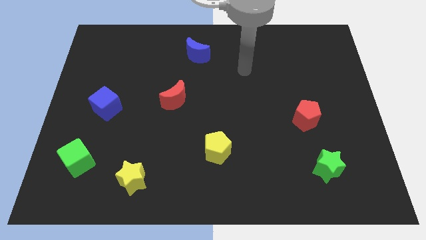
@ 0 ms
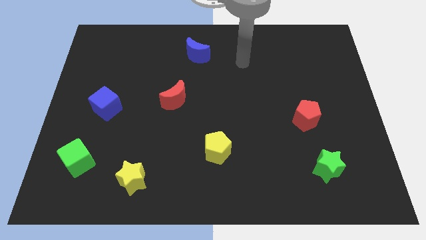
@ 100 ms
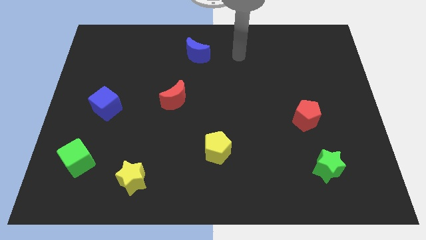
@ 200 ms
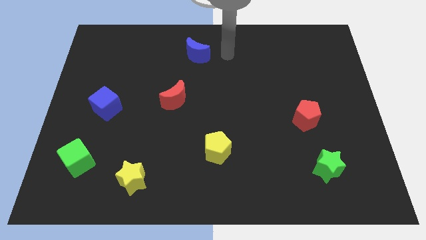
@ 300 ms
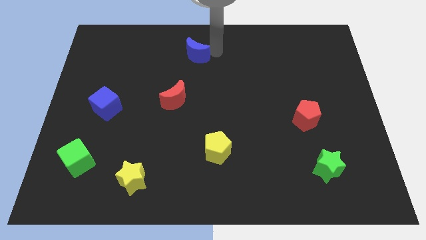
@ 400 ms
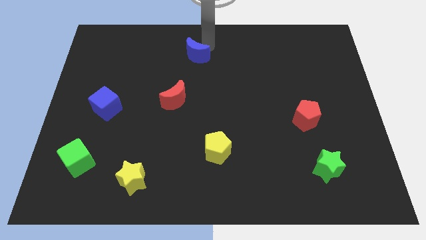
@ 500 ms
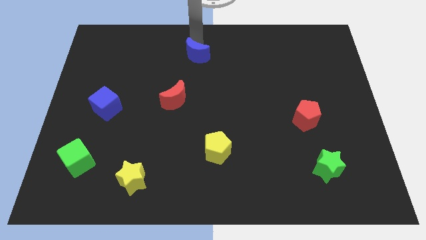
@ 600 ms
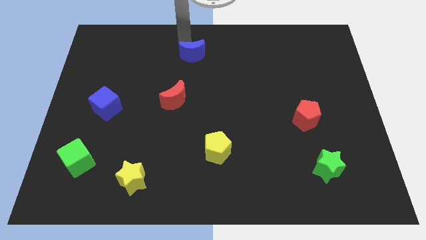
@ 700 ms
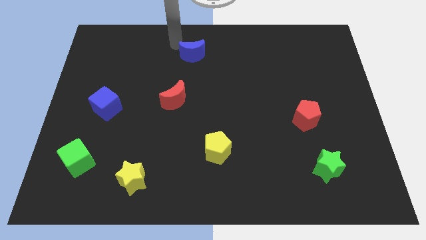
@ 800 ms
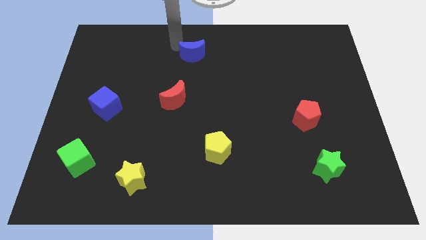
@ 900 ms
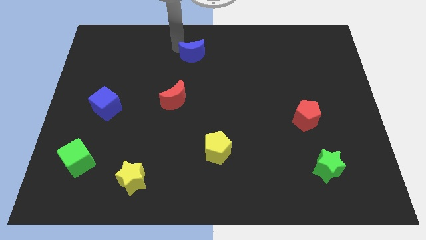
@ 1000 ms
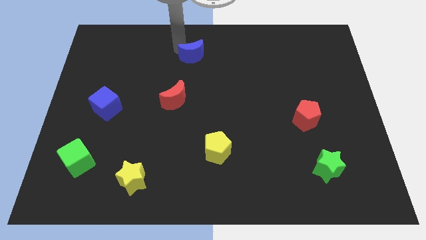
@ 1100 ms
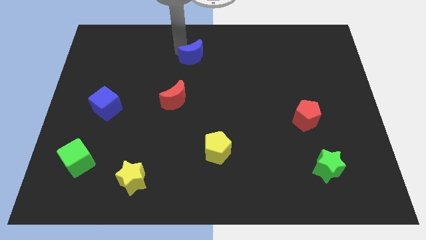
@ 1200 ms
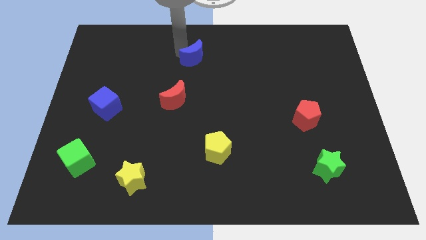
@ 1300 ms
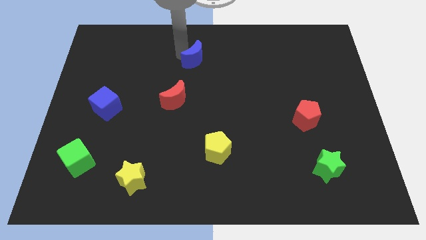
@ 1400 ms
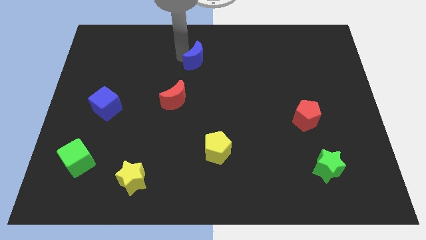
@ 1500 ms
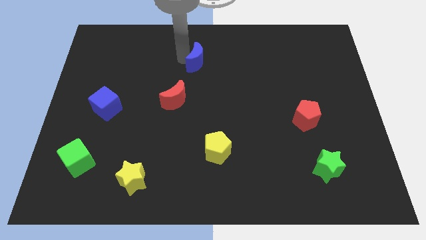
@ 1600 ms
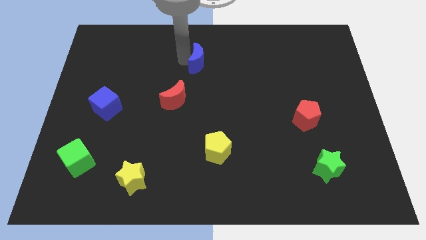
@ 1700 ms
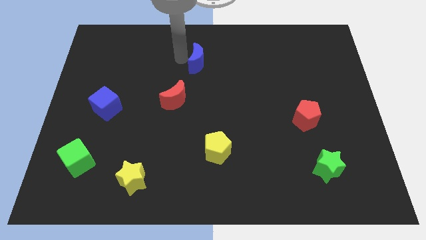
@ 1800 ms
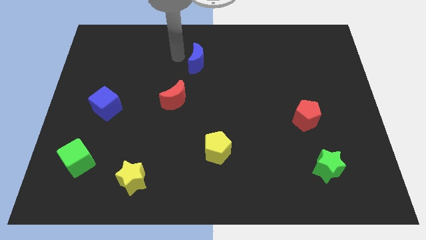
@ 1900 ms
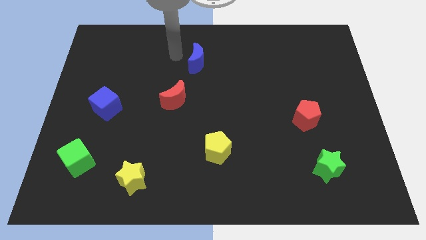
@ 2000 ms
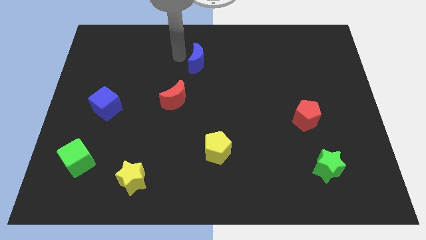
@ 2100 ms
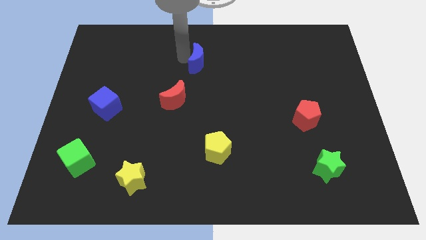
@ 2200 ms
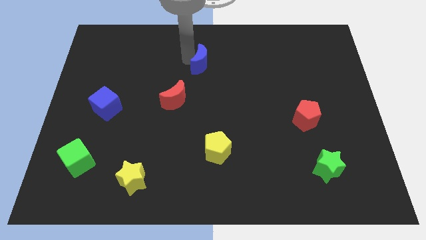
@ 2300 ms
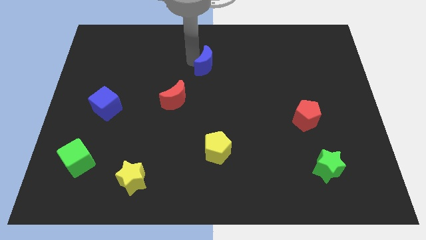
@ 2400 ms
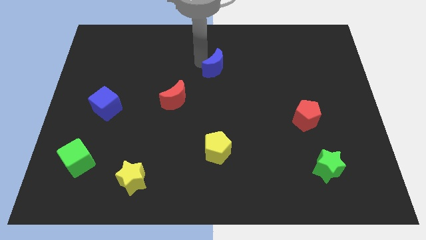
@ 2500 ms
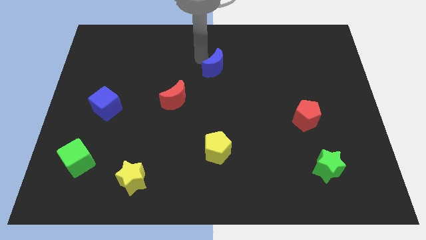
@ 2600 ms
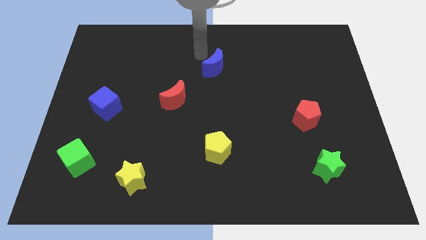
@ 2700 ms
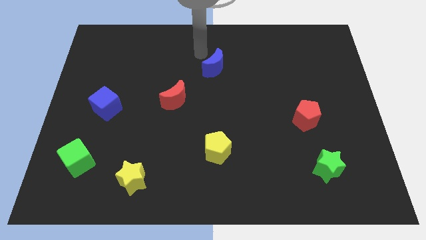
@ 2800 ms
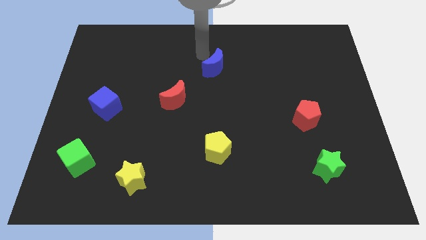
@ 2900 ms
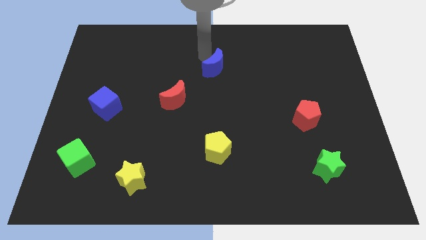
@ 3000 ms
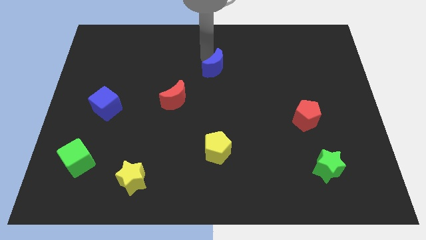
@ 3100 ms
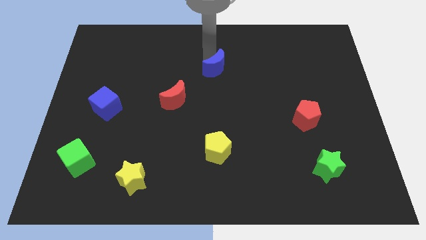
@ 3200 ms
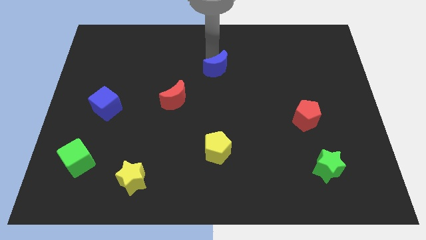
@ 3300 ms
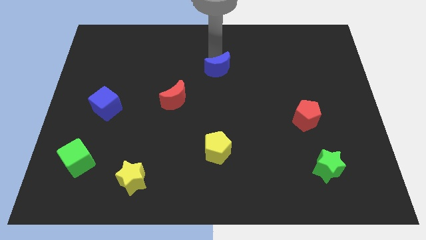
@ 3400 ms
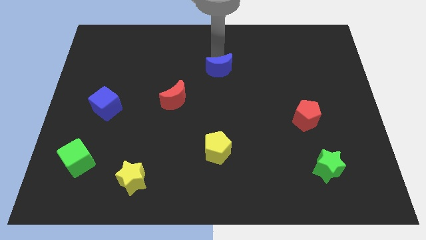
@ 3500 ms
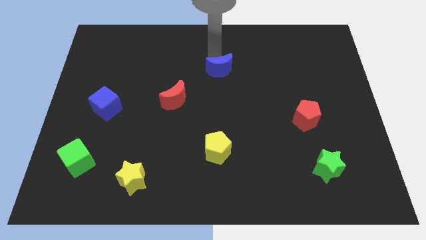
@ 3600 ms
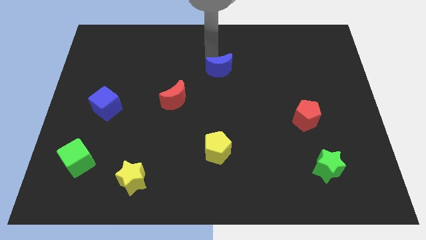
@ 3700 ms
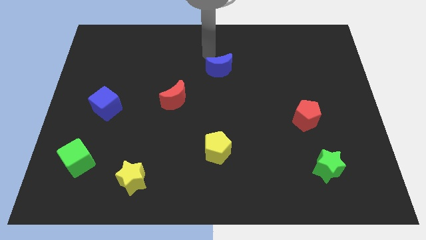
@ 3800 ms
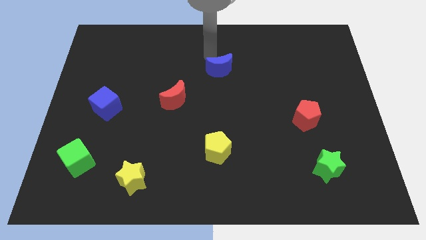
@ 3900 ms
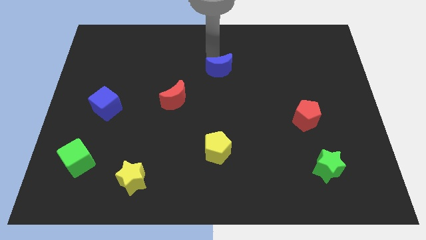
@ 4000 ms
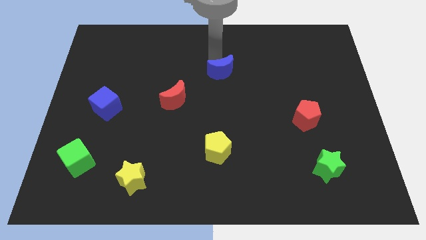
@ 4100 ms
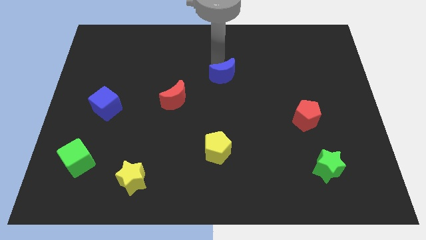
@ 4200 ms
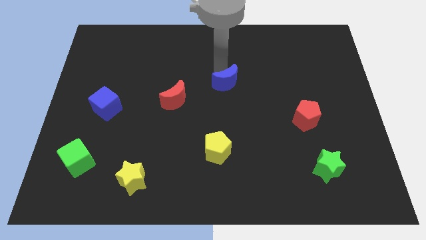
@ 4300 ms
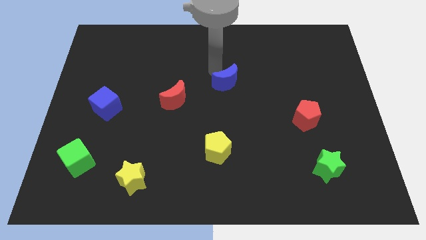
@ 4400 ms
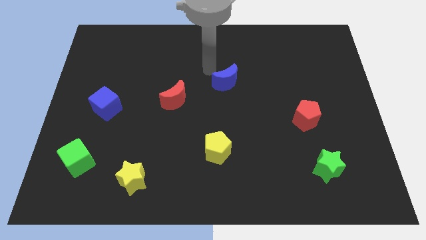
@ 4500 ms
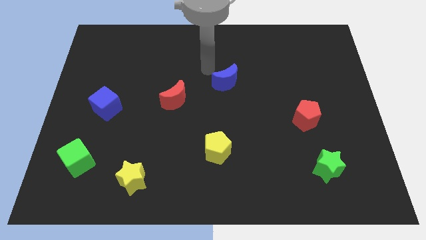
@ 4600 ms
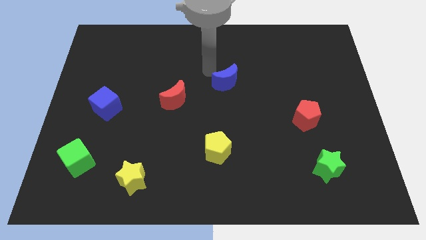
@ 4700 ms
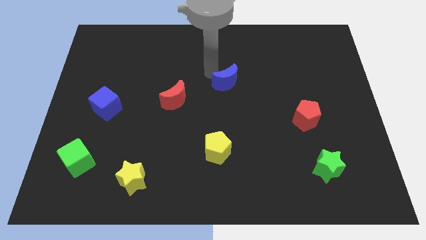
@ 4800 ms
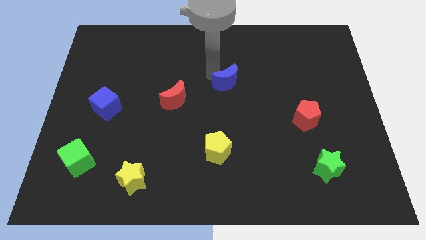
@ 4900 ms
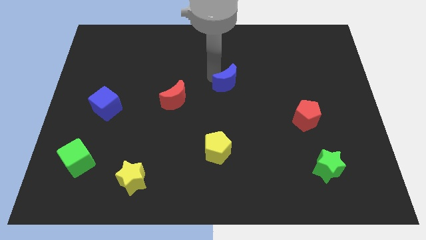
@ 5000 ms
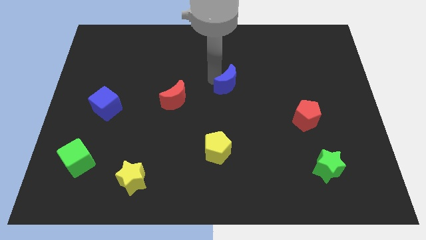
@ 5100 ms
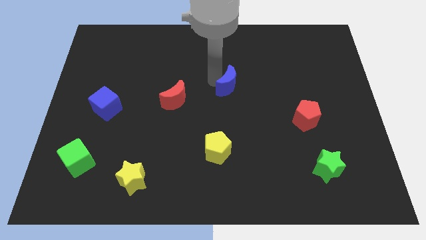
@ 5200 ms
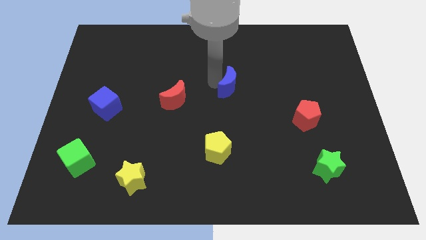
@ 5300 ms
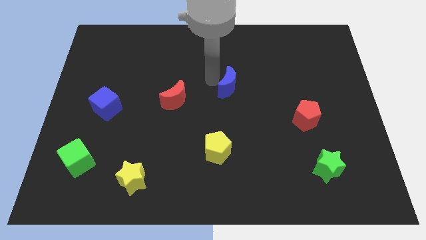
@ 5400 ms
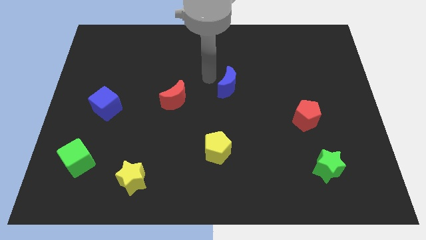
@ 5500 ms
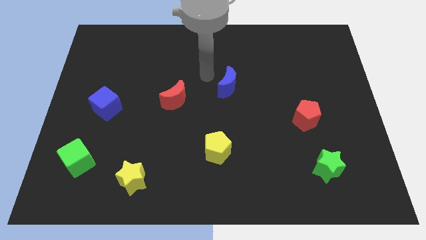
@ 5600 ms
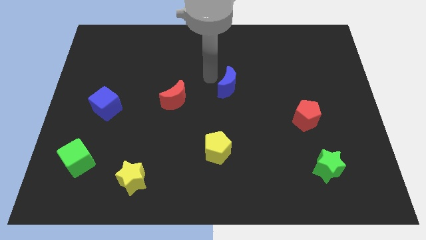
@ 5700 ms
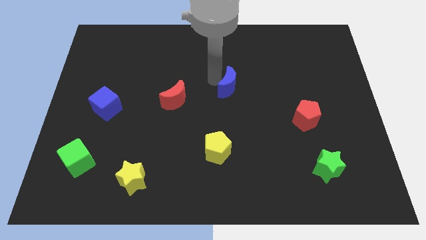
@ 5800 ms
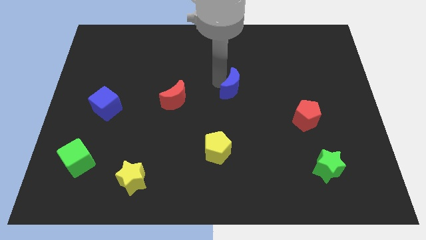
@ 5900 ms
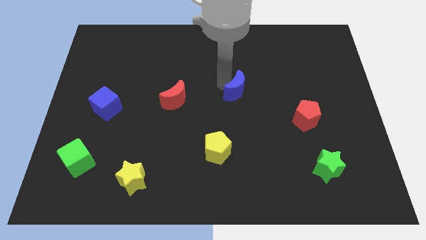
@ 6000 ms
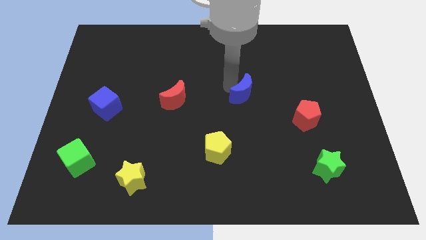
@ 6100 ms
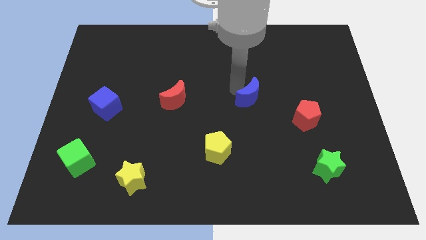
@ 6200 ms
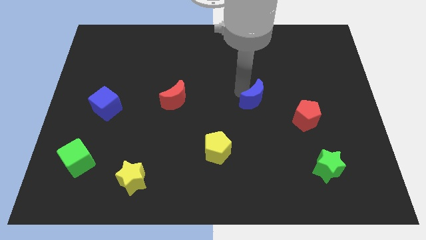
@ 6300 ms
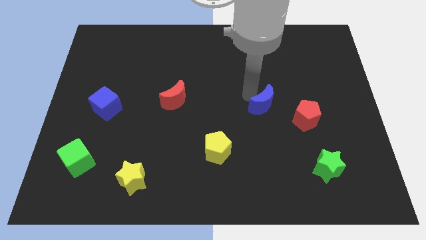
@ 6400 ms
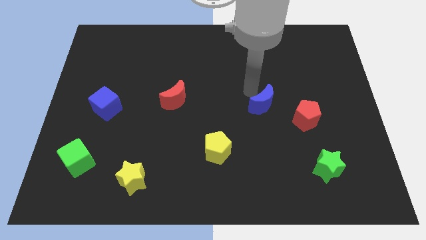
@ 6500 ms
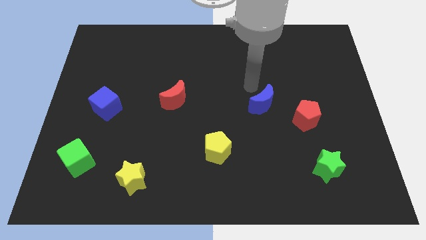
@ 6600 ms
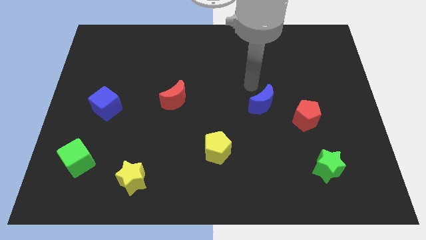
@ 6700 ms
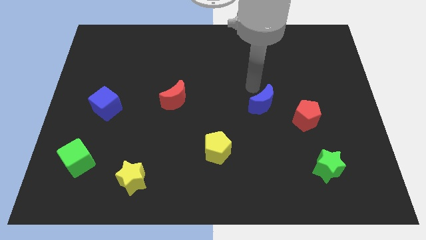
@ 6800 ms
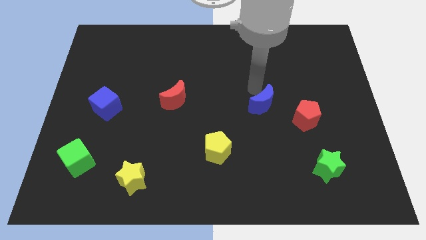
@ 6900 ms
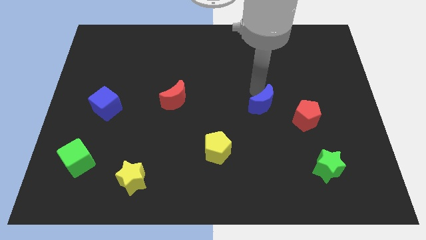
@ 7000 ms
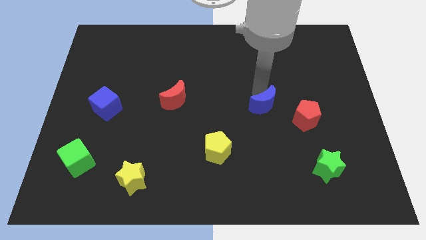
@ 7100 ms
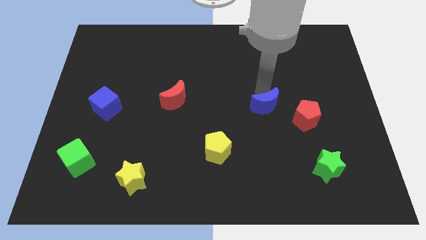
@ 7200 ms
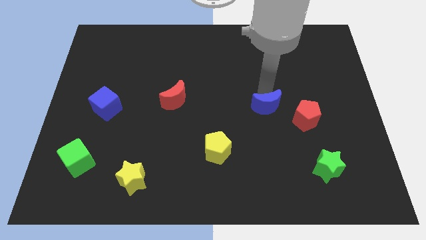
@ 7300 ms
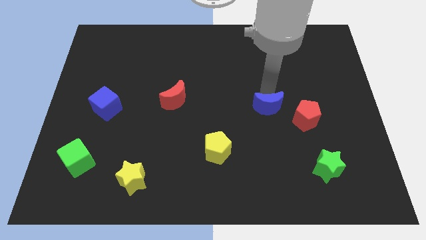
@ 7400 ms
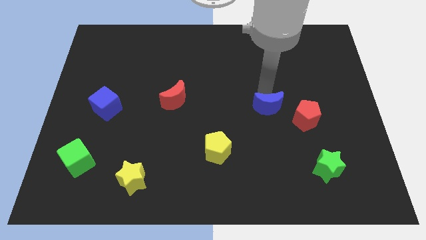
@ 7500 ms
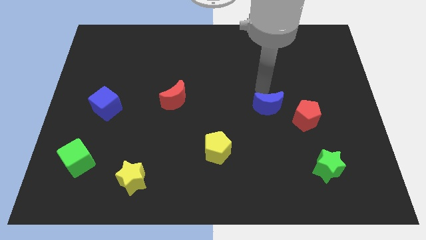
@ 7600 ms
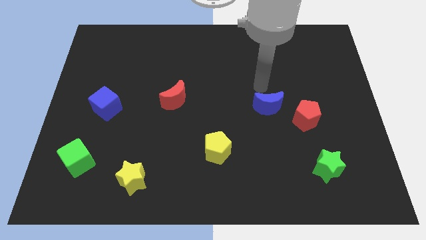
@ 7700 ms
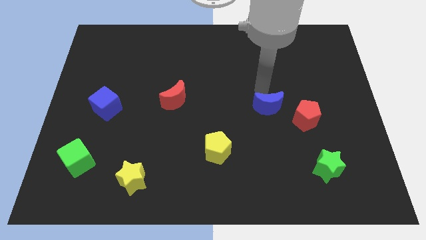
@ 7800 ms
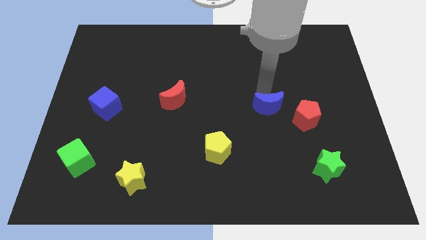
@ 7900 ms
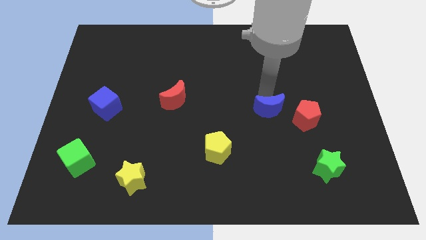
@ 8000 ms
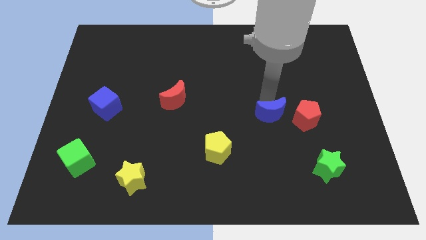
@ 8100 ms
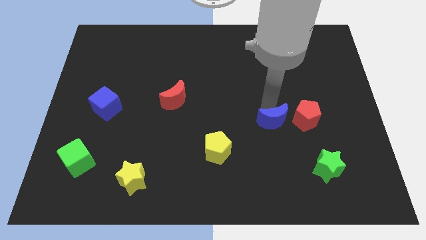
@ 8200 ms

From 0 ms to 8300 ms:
move the blue moon diagonally down and to the left of the red pentagon
